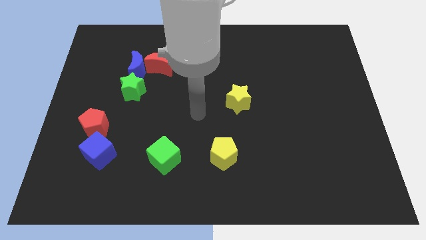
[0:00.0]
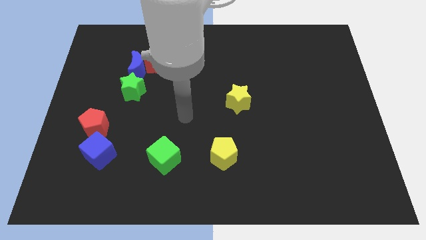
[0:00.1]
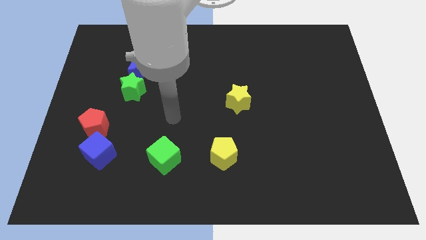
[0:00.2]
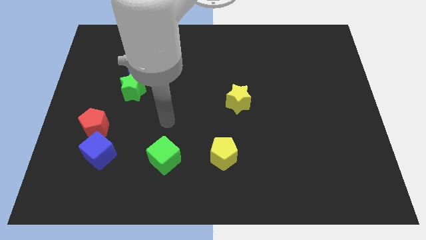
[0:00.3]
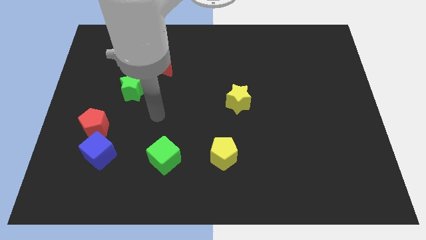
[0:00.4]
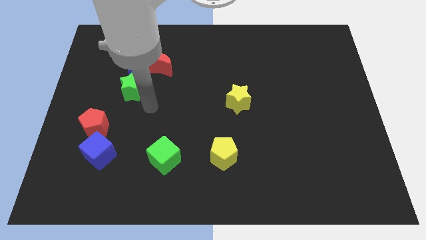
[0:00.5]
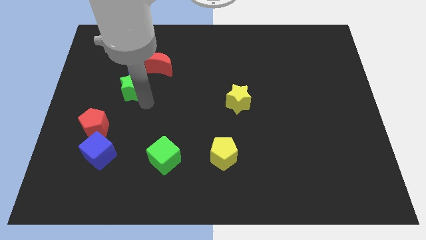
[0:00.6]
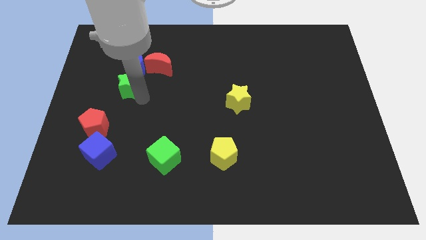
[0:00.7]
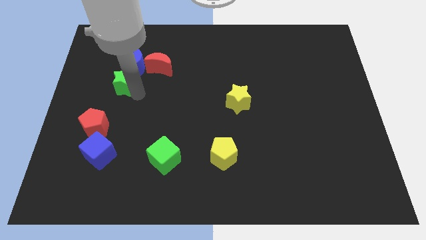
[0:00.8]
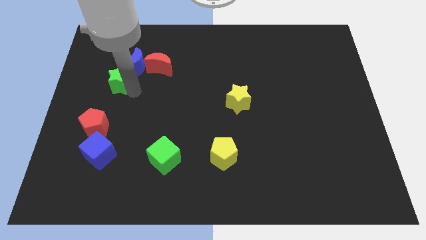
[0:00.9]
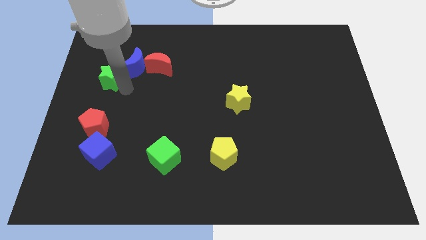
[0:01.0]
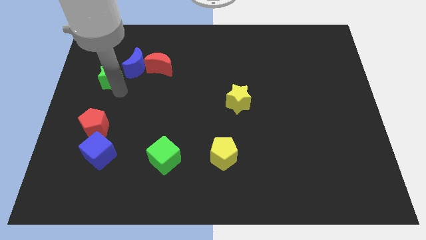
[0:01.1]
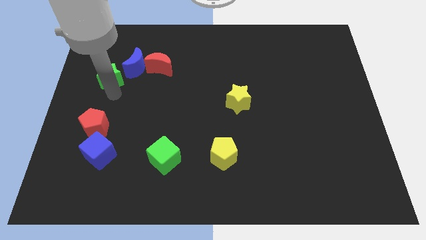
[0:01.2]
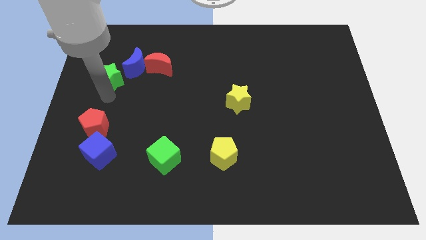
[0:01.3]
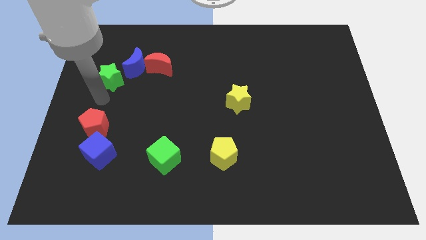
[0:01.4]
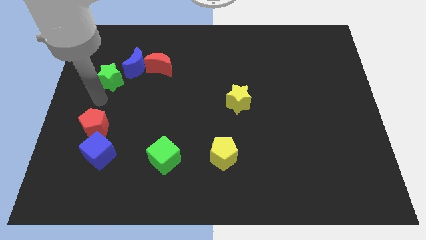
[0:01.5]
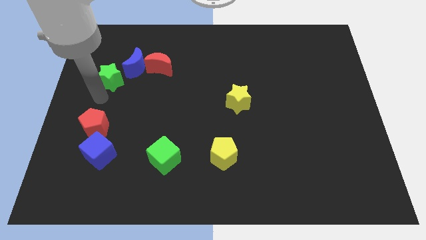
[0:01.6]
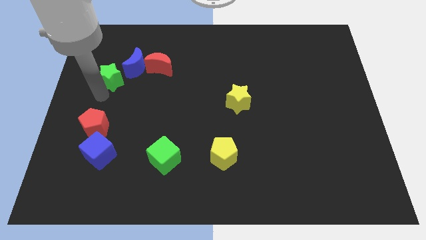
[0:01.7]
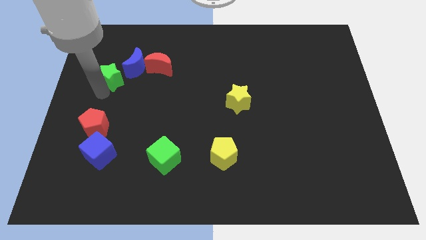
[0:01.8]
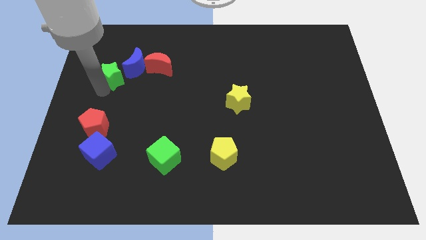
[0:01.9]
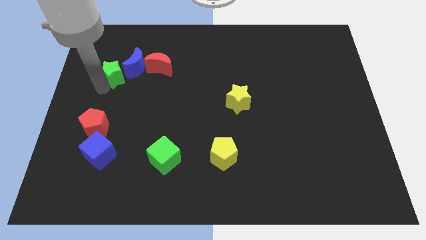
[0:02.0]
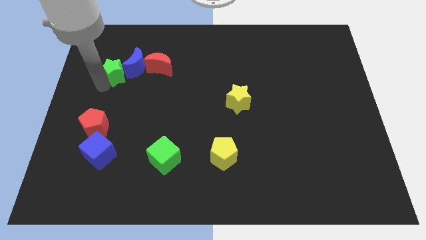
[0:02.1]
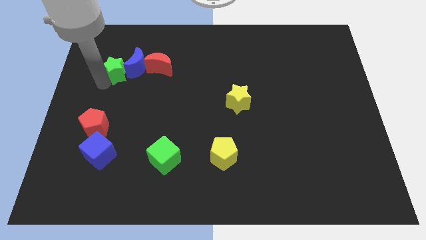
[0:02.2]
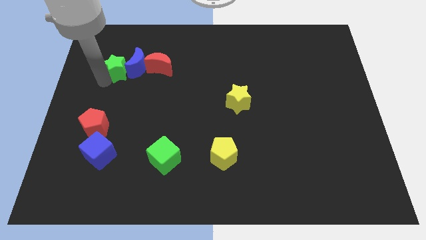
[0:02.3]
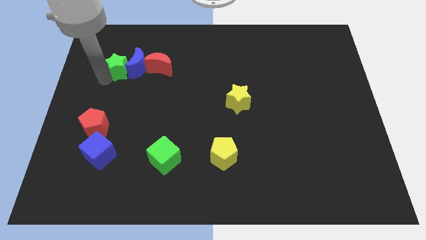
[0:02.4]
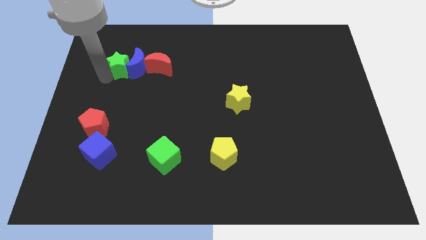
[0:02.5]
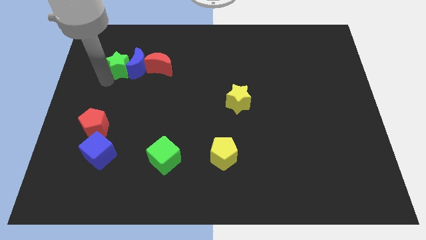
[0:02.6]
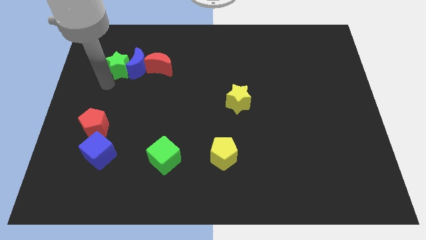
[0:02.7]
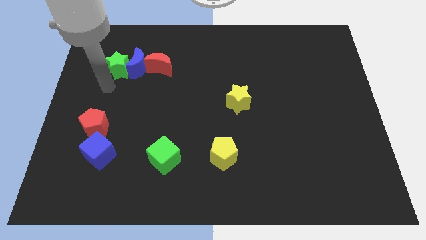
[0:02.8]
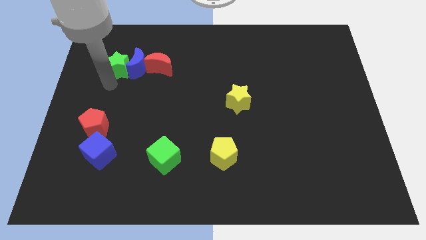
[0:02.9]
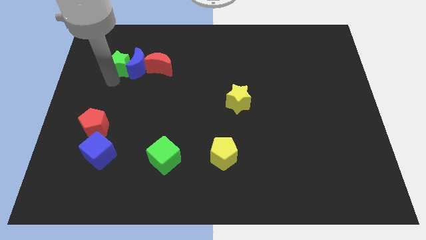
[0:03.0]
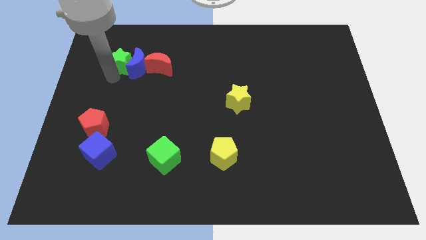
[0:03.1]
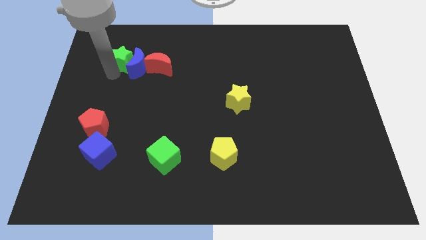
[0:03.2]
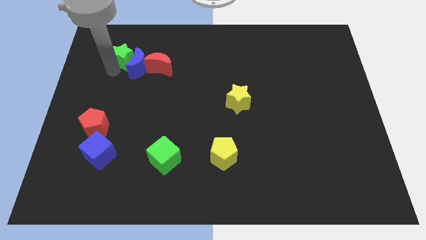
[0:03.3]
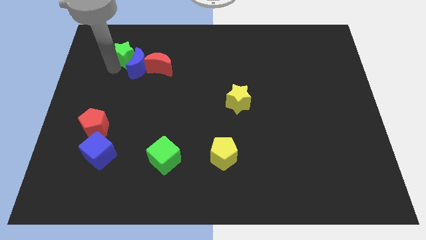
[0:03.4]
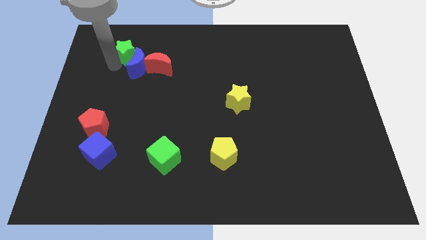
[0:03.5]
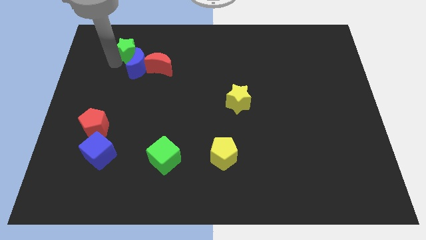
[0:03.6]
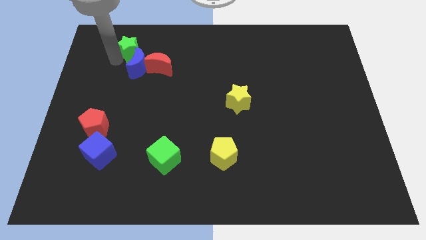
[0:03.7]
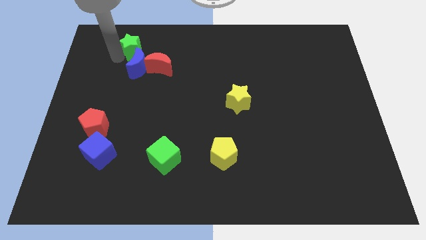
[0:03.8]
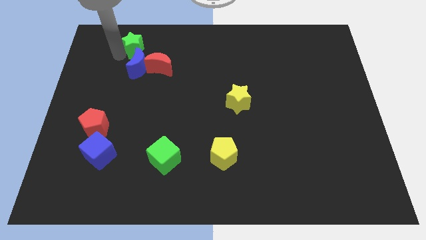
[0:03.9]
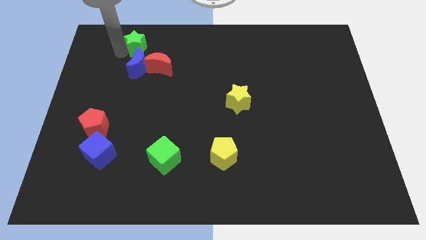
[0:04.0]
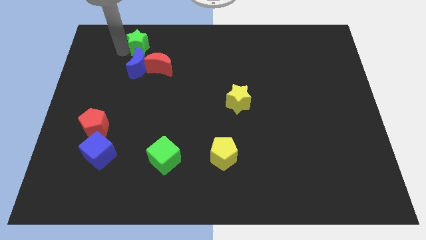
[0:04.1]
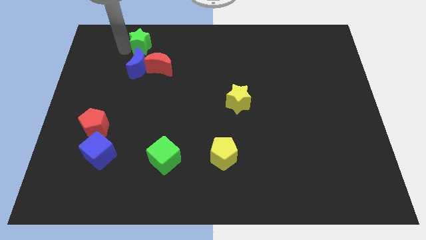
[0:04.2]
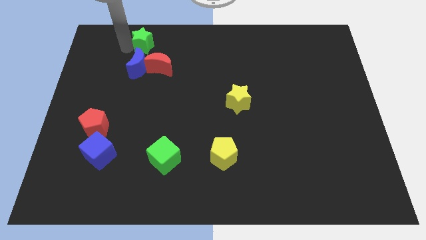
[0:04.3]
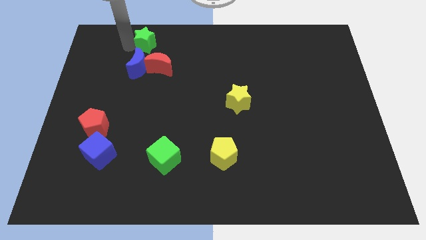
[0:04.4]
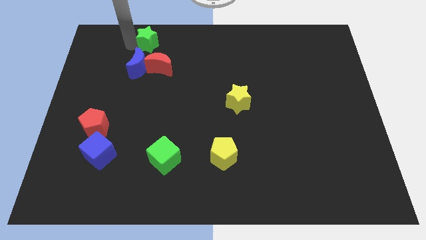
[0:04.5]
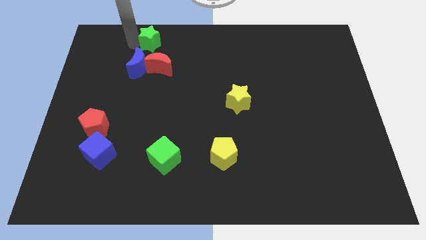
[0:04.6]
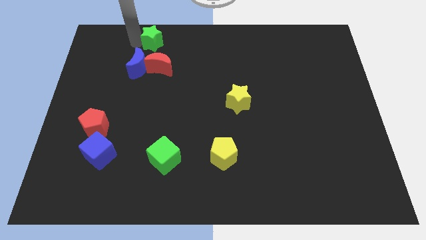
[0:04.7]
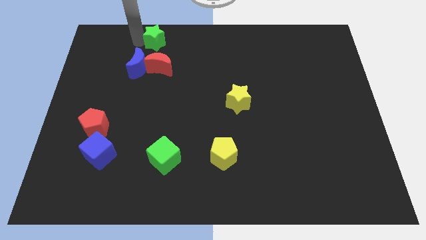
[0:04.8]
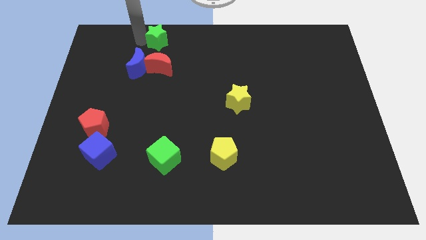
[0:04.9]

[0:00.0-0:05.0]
move the green star diagonally up and to the right of the blue moon

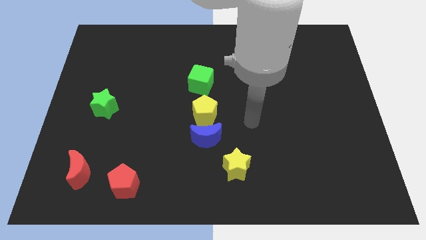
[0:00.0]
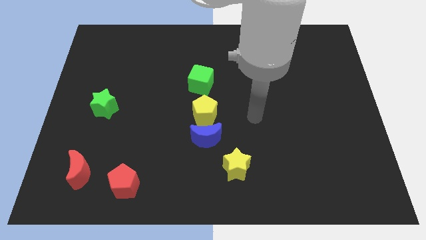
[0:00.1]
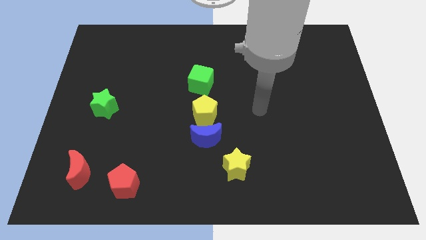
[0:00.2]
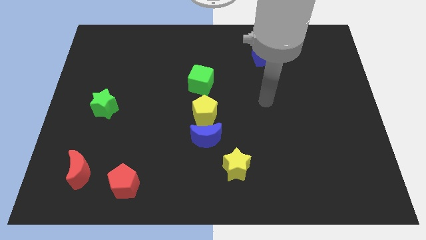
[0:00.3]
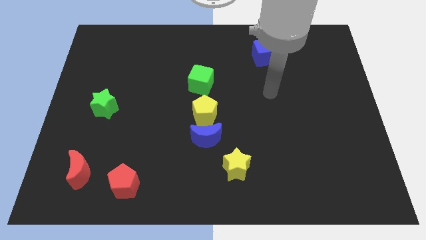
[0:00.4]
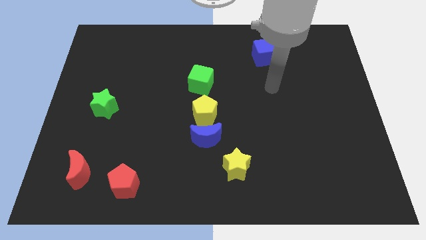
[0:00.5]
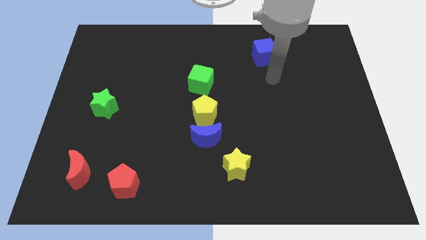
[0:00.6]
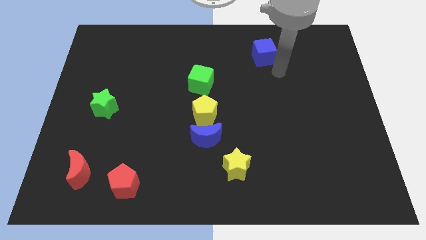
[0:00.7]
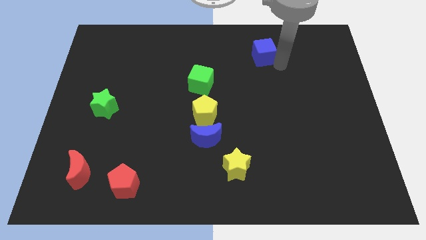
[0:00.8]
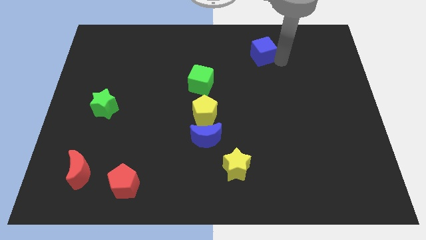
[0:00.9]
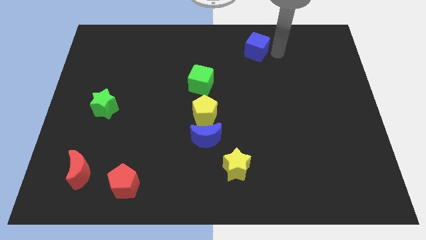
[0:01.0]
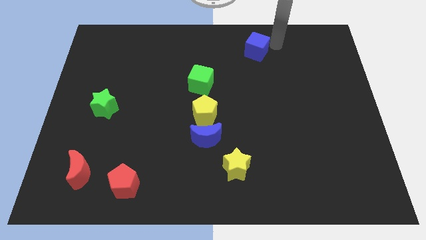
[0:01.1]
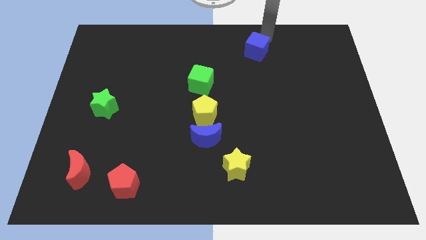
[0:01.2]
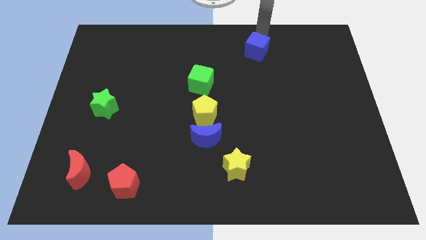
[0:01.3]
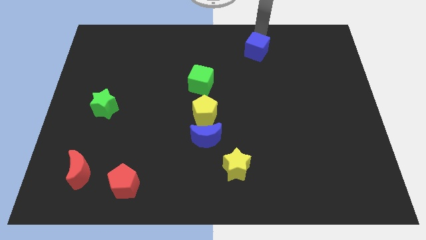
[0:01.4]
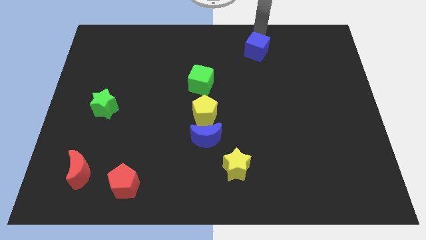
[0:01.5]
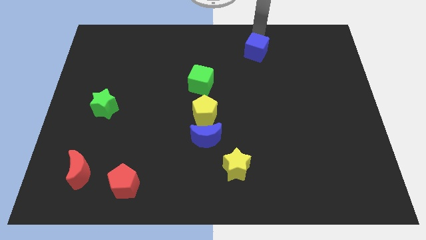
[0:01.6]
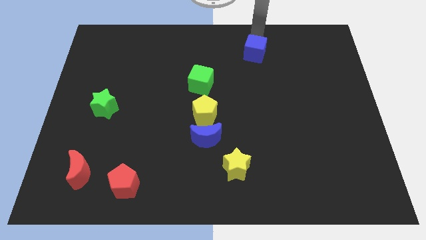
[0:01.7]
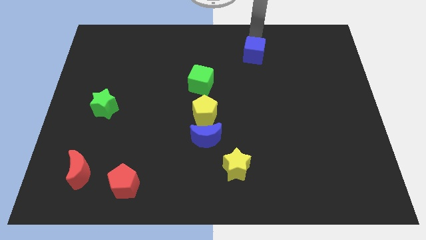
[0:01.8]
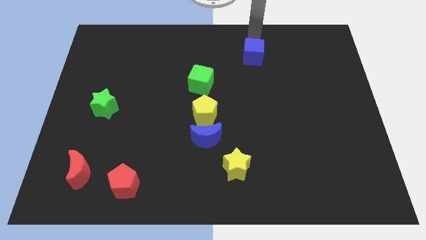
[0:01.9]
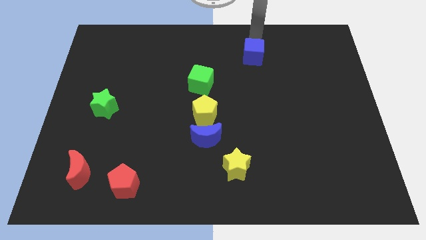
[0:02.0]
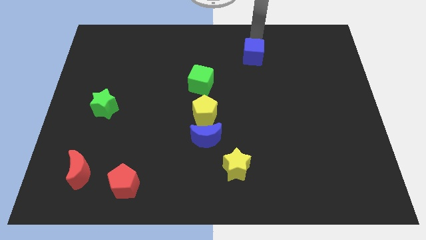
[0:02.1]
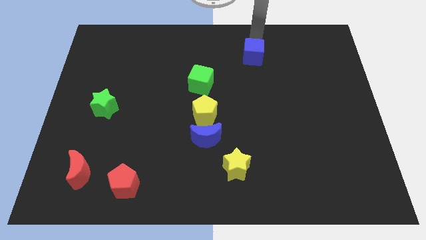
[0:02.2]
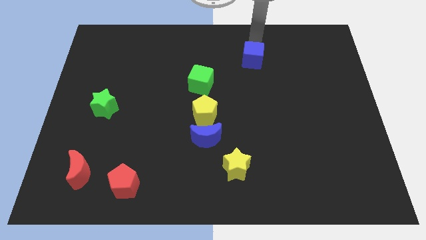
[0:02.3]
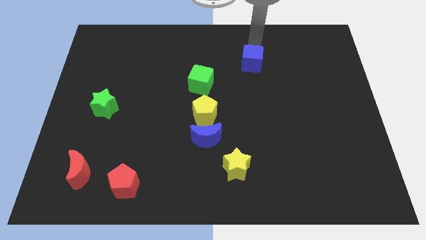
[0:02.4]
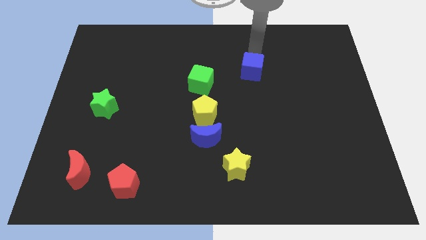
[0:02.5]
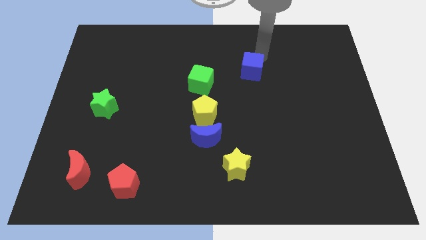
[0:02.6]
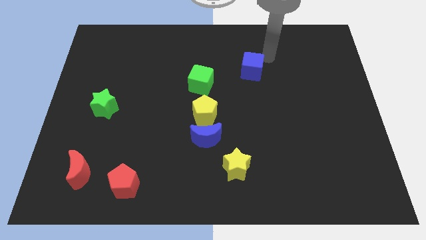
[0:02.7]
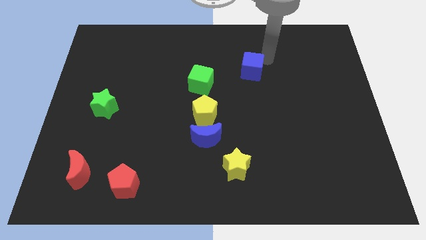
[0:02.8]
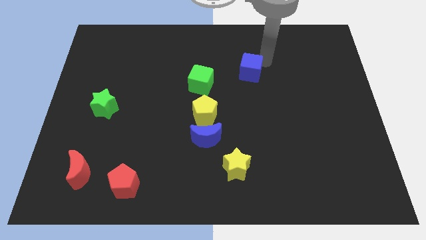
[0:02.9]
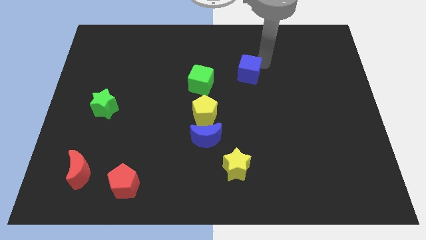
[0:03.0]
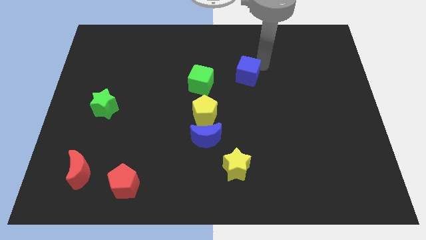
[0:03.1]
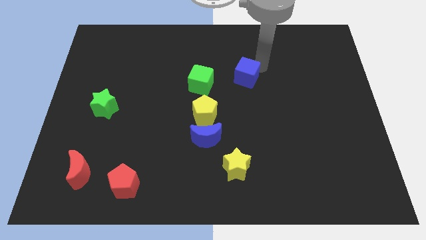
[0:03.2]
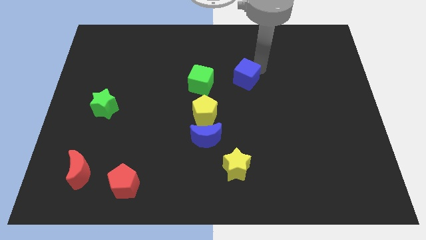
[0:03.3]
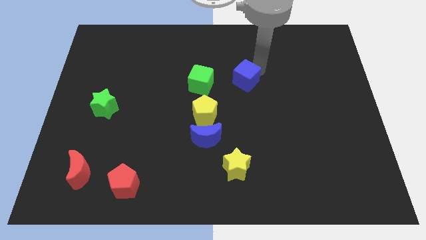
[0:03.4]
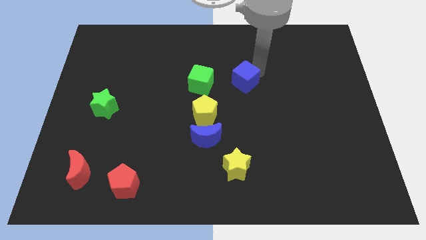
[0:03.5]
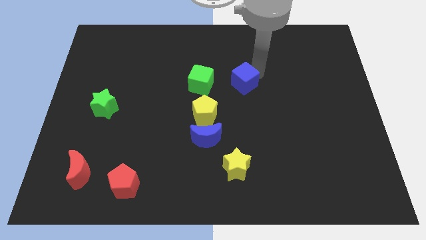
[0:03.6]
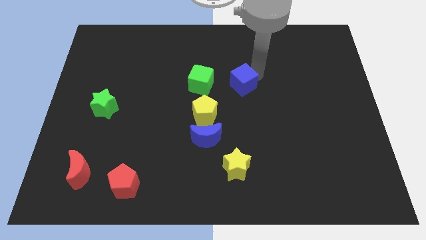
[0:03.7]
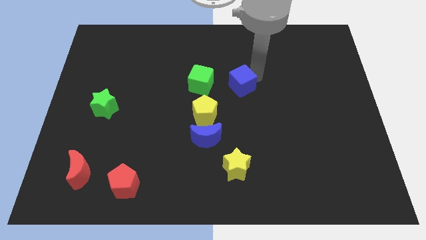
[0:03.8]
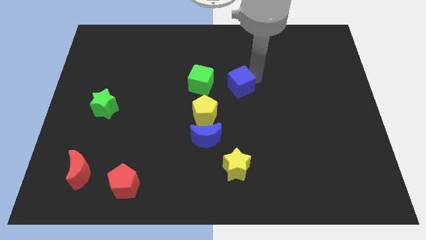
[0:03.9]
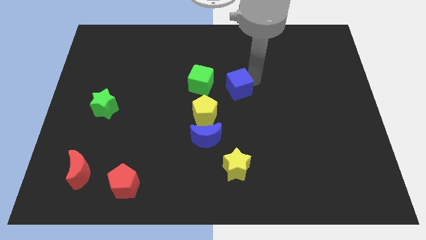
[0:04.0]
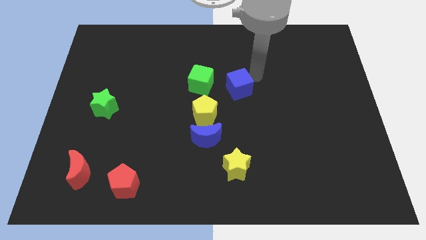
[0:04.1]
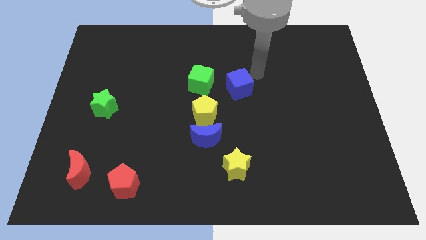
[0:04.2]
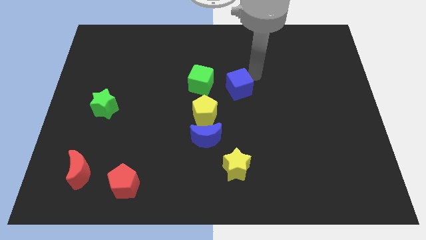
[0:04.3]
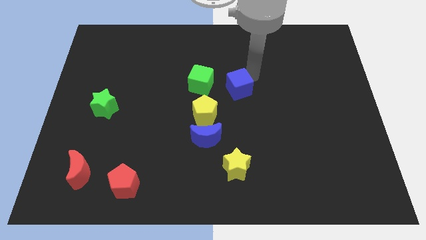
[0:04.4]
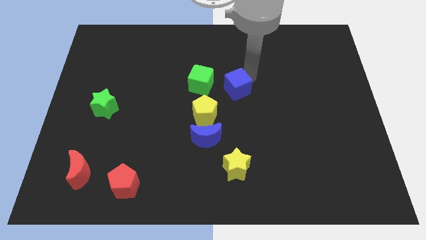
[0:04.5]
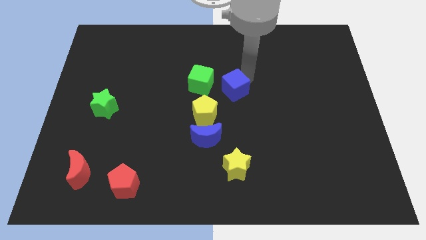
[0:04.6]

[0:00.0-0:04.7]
slide the blue cube diagonally down and to the right of the green cube
